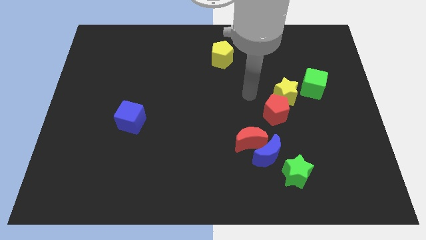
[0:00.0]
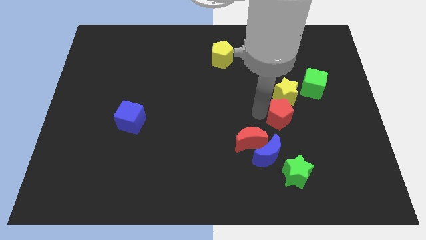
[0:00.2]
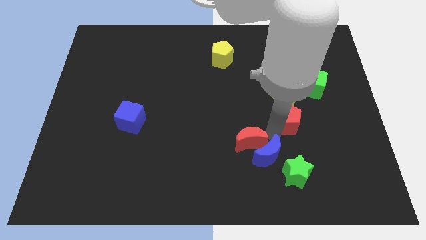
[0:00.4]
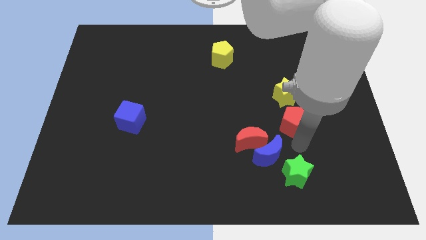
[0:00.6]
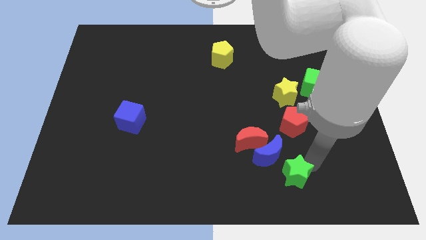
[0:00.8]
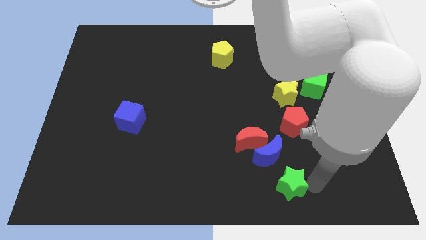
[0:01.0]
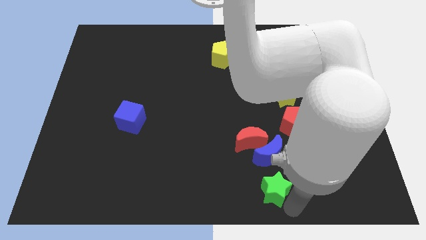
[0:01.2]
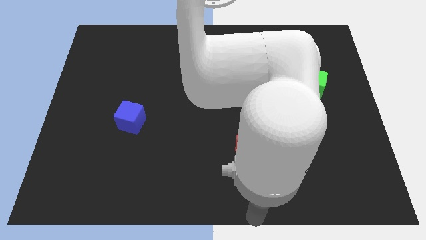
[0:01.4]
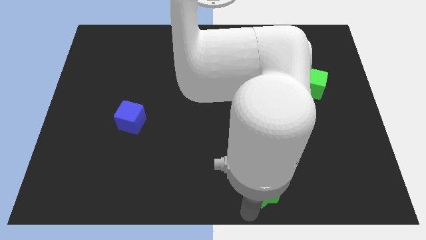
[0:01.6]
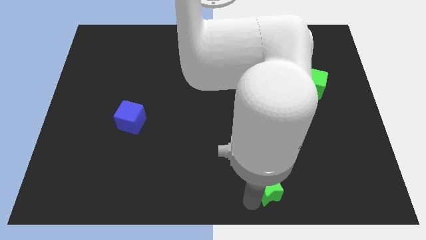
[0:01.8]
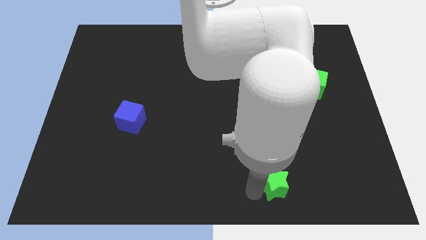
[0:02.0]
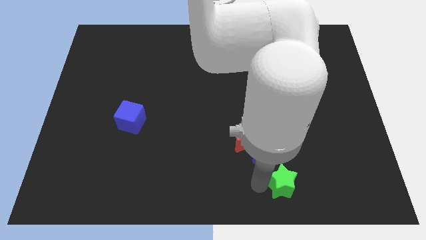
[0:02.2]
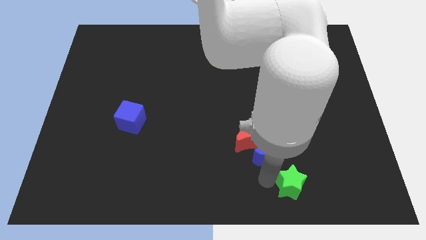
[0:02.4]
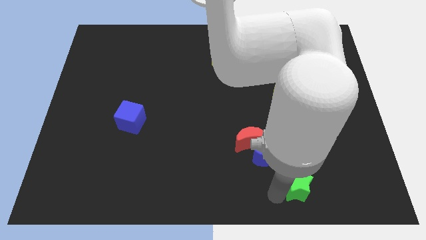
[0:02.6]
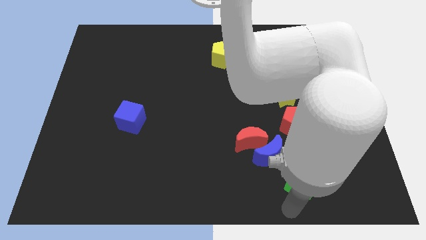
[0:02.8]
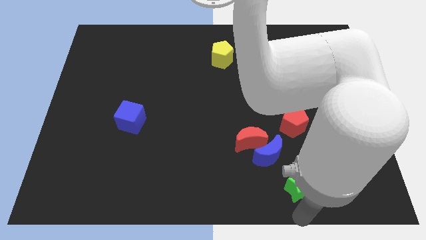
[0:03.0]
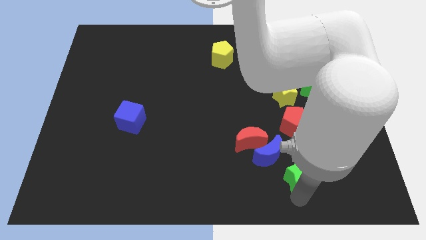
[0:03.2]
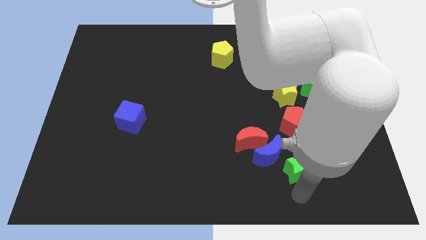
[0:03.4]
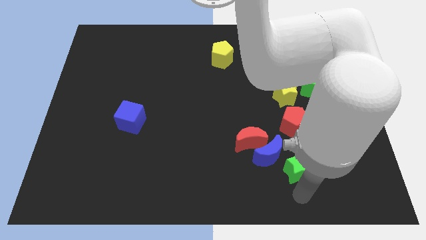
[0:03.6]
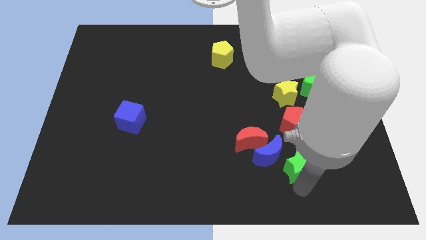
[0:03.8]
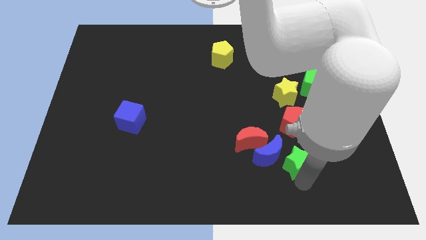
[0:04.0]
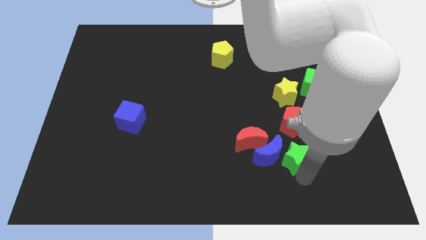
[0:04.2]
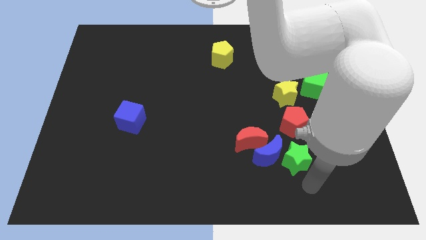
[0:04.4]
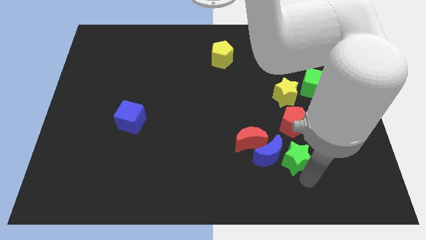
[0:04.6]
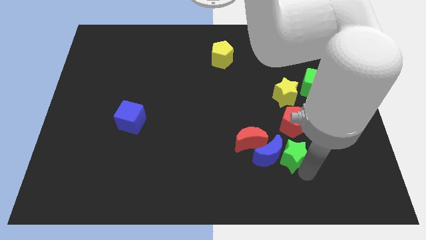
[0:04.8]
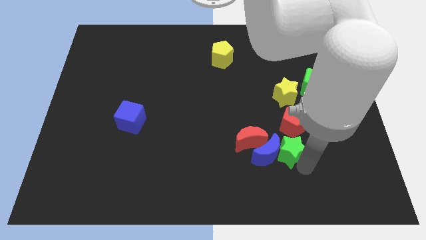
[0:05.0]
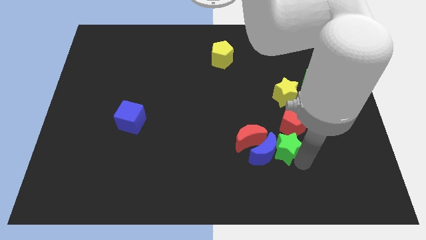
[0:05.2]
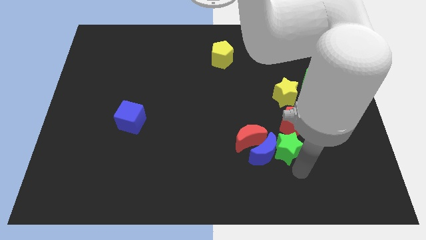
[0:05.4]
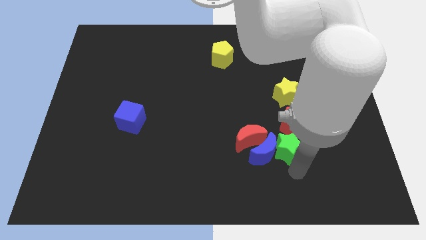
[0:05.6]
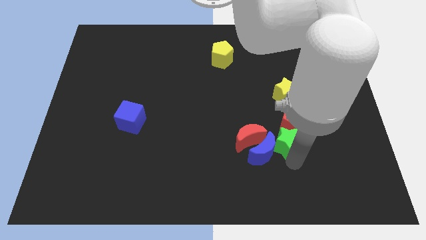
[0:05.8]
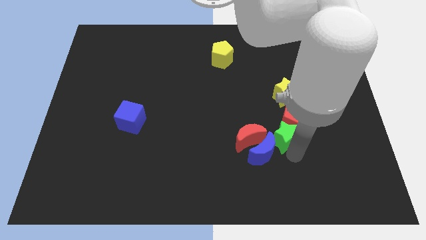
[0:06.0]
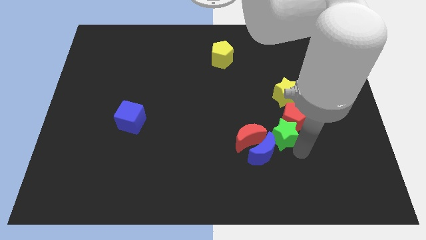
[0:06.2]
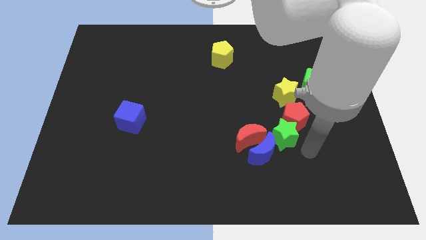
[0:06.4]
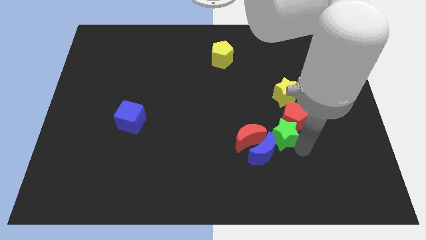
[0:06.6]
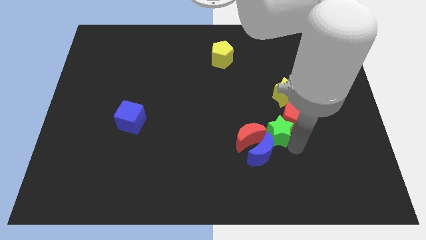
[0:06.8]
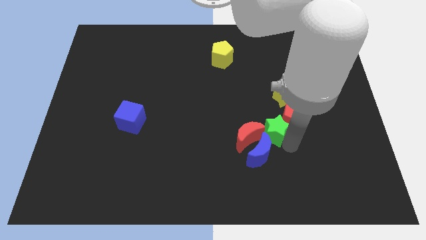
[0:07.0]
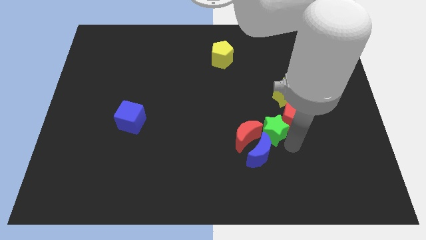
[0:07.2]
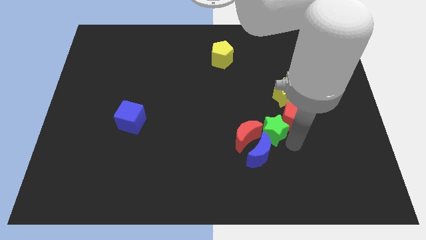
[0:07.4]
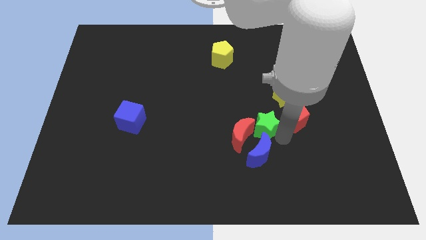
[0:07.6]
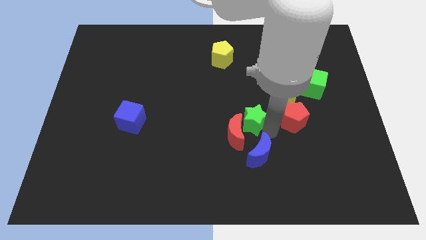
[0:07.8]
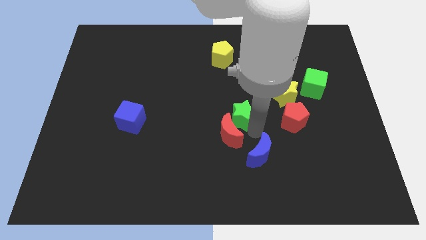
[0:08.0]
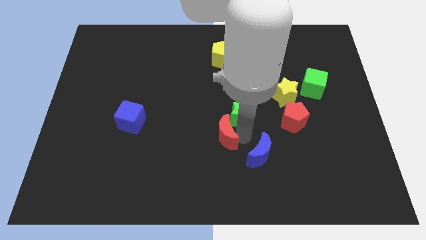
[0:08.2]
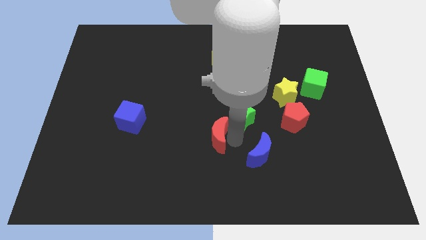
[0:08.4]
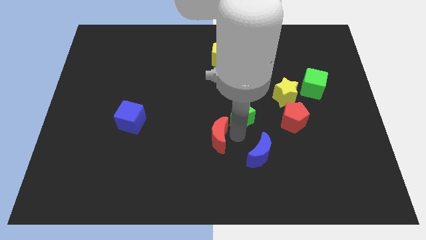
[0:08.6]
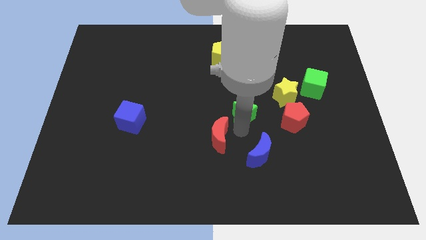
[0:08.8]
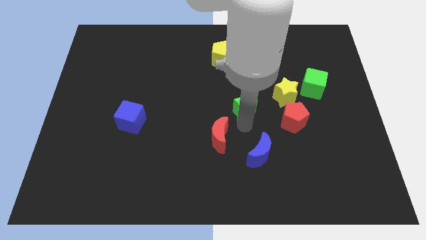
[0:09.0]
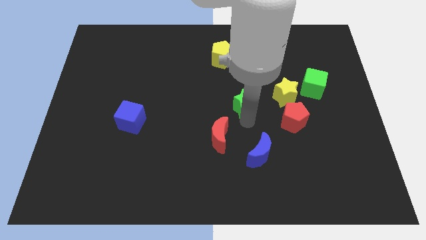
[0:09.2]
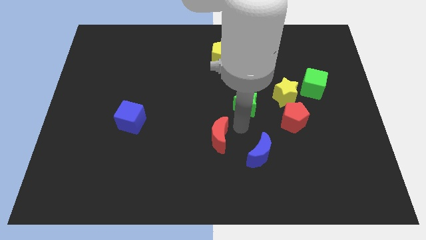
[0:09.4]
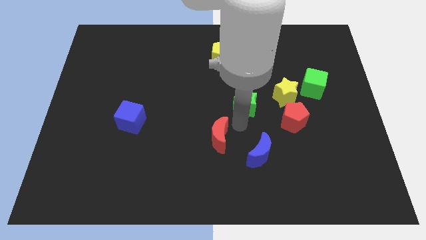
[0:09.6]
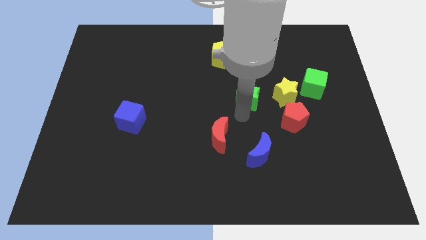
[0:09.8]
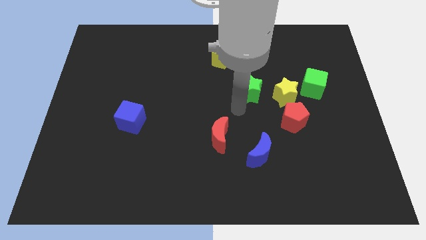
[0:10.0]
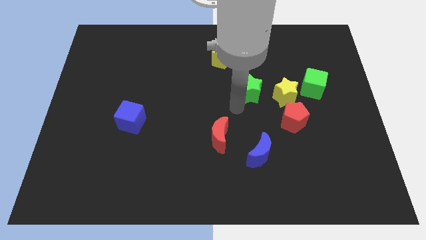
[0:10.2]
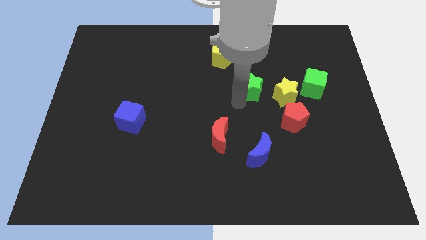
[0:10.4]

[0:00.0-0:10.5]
slide the green star up

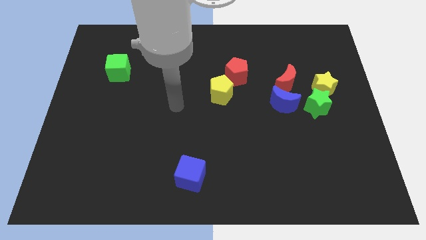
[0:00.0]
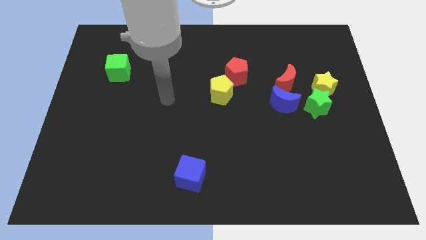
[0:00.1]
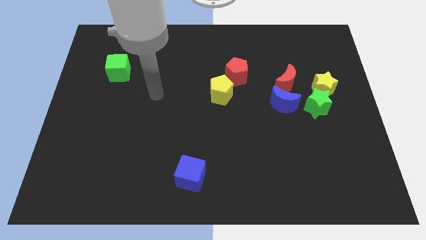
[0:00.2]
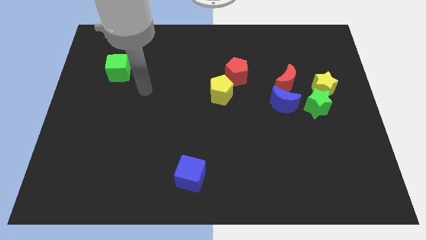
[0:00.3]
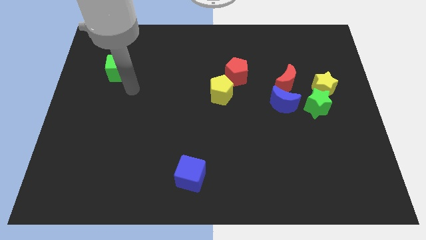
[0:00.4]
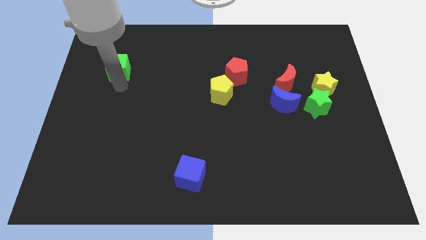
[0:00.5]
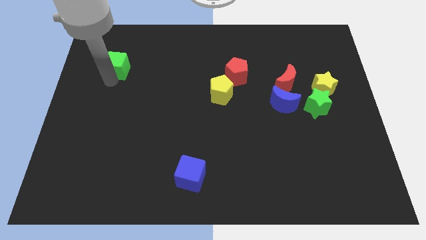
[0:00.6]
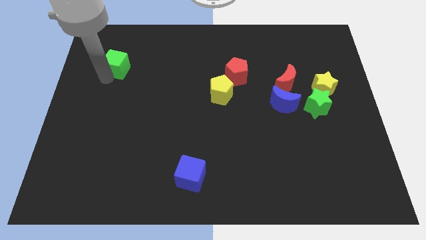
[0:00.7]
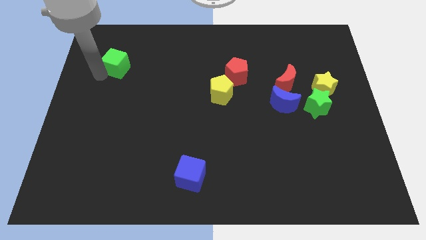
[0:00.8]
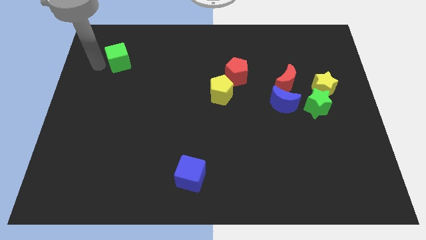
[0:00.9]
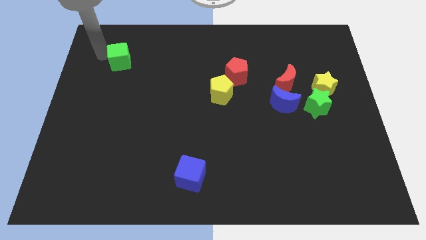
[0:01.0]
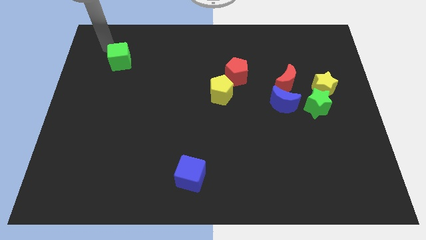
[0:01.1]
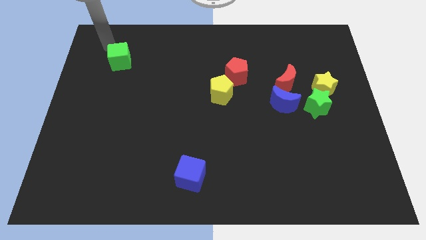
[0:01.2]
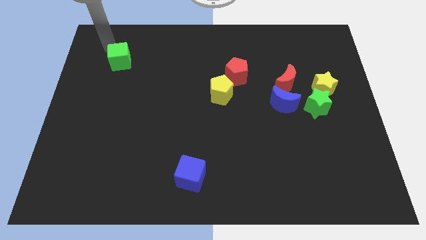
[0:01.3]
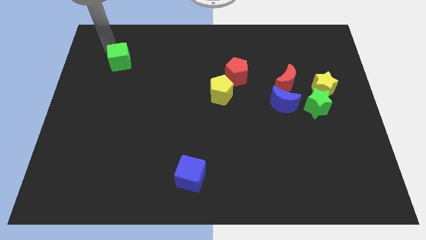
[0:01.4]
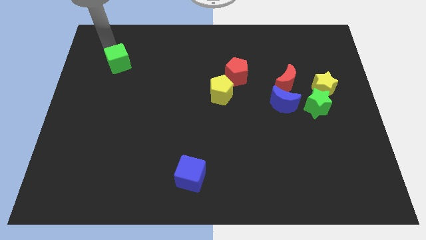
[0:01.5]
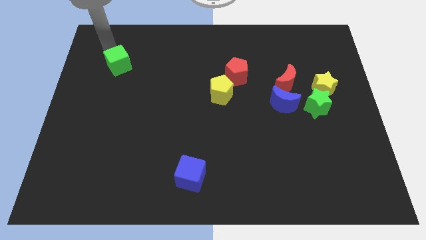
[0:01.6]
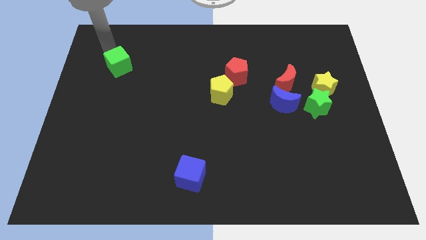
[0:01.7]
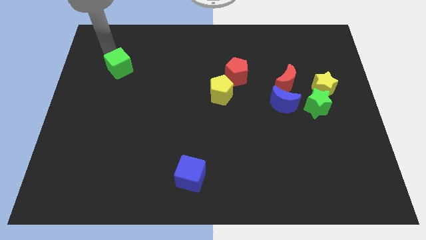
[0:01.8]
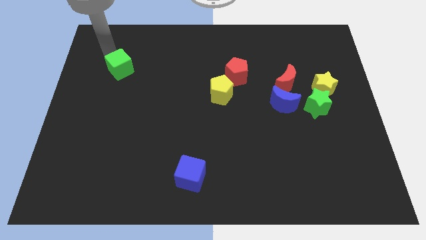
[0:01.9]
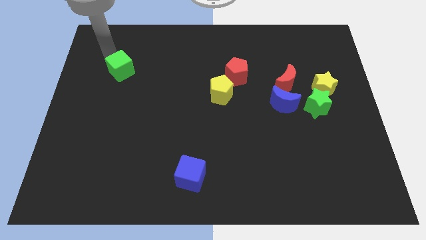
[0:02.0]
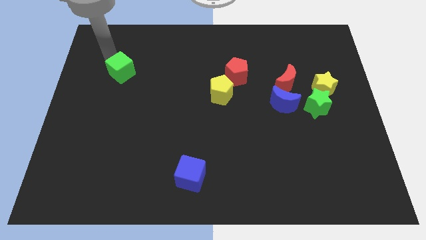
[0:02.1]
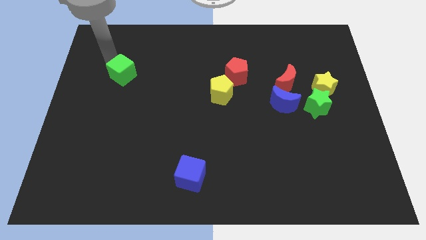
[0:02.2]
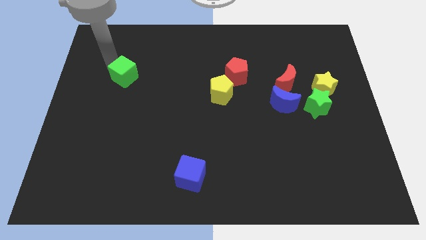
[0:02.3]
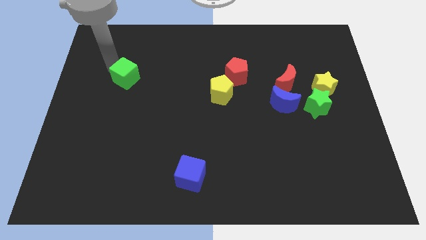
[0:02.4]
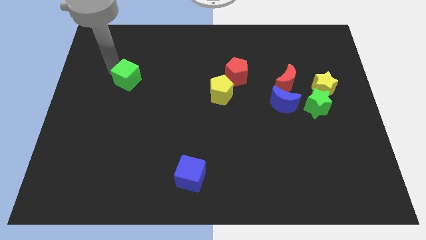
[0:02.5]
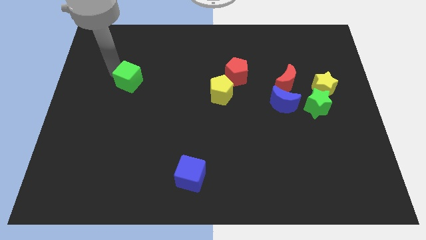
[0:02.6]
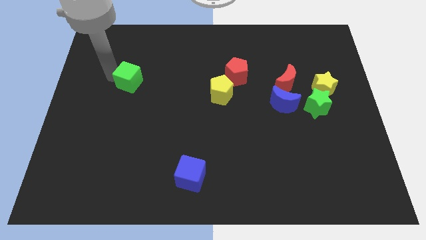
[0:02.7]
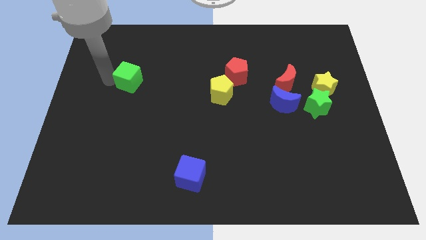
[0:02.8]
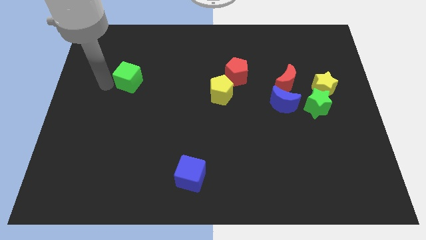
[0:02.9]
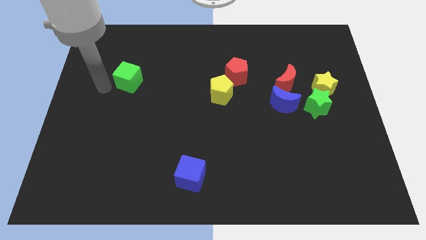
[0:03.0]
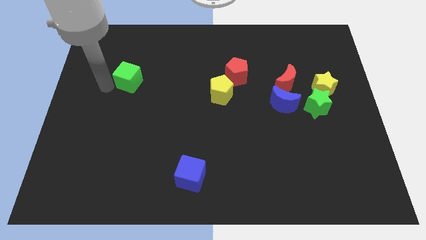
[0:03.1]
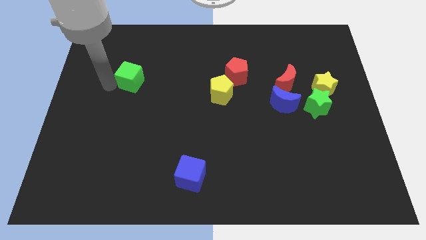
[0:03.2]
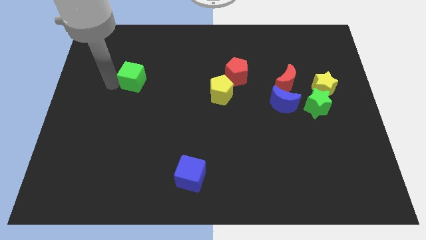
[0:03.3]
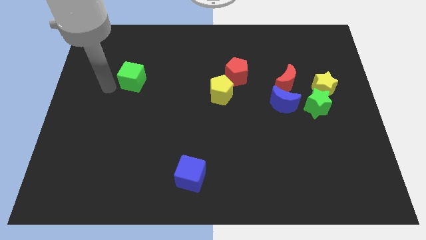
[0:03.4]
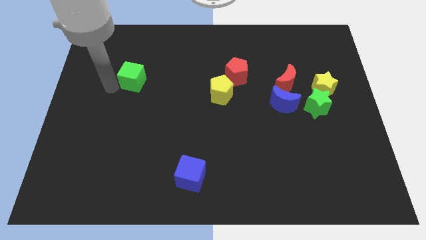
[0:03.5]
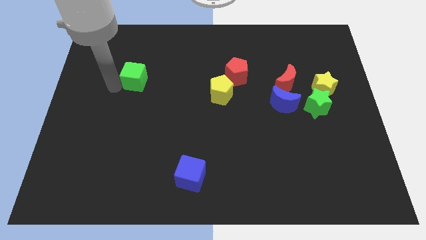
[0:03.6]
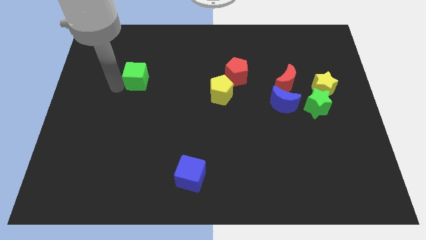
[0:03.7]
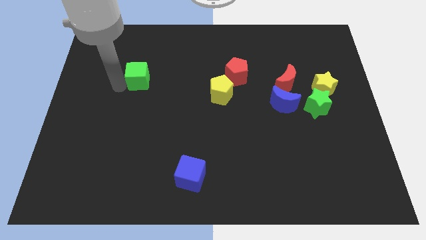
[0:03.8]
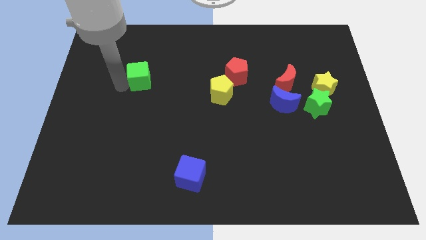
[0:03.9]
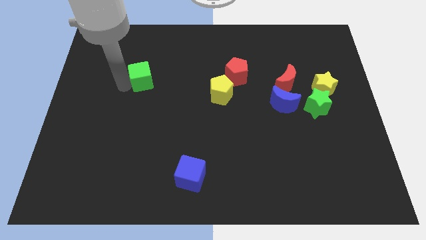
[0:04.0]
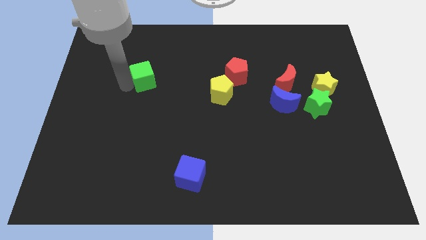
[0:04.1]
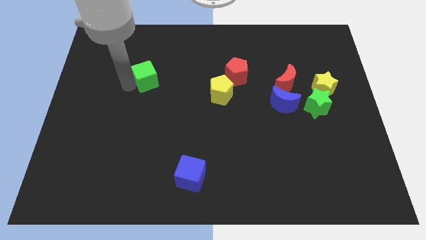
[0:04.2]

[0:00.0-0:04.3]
slide the green cube to the right slightly
